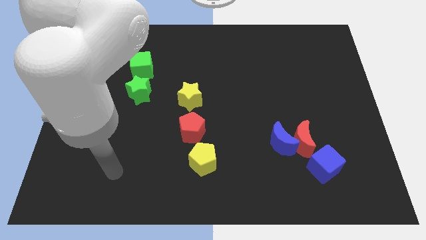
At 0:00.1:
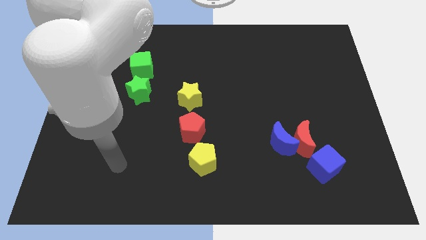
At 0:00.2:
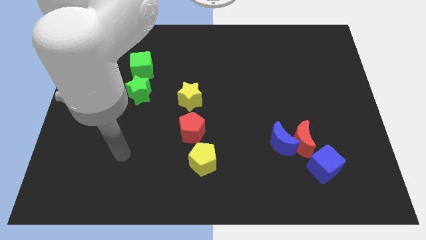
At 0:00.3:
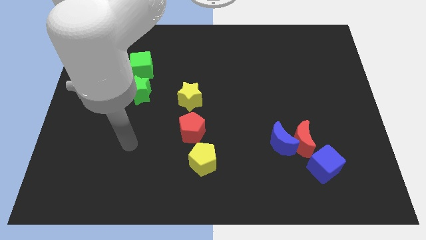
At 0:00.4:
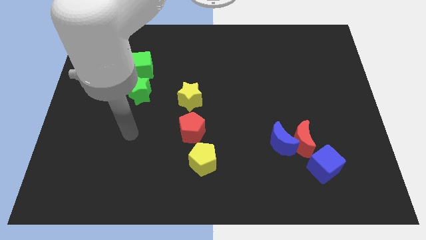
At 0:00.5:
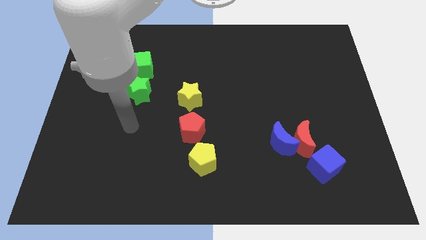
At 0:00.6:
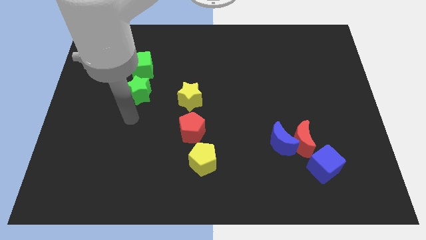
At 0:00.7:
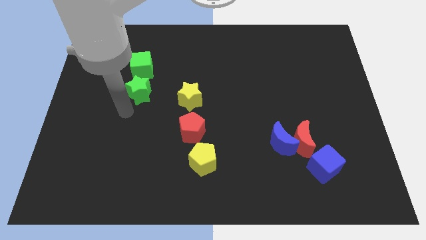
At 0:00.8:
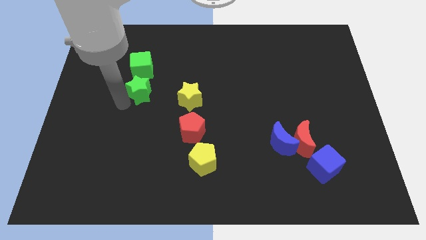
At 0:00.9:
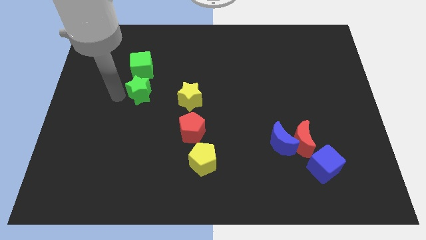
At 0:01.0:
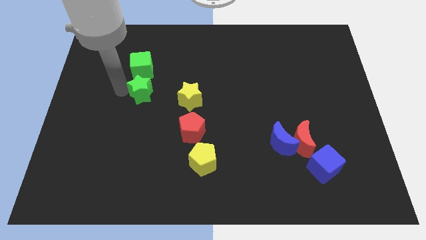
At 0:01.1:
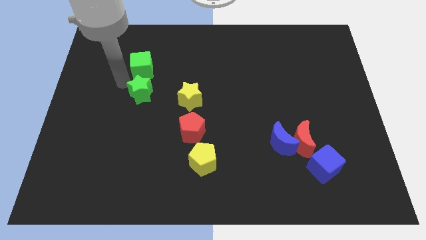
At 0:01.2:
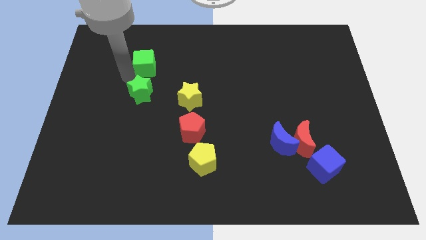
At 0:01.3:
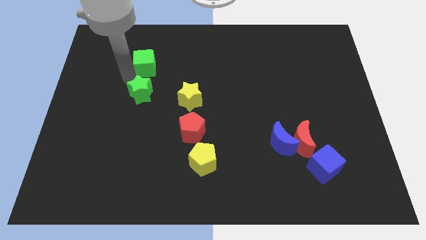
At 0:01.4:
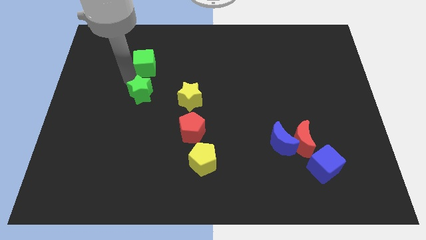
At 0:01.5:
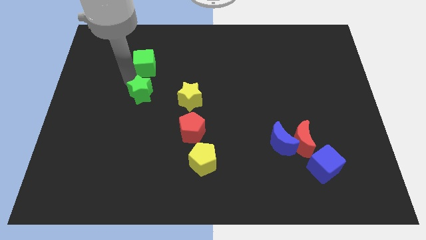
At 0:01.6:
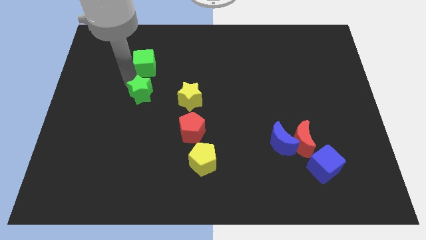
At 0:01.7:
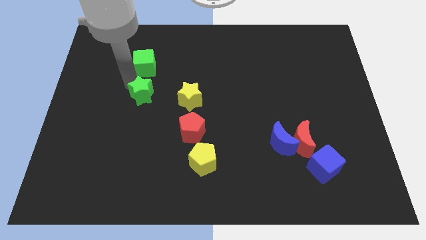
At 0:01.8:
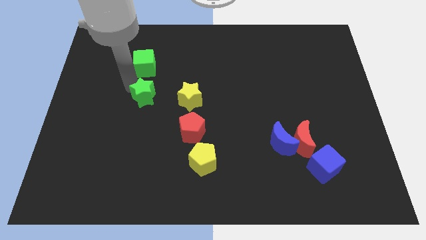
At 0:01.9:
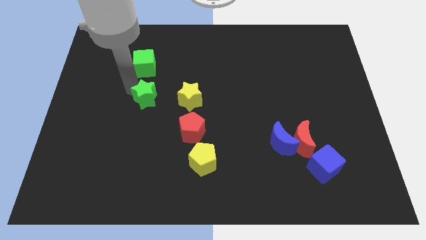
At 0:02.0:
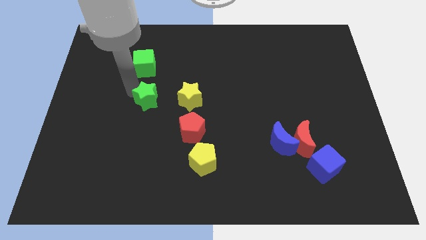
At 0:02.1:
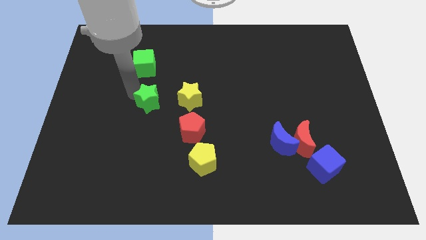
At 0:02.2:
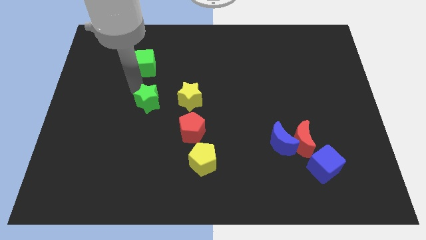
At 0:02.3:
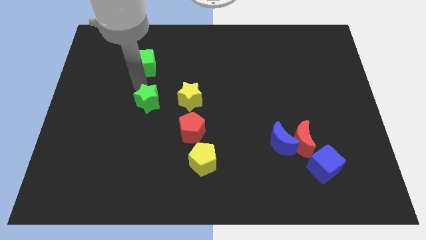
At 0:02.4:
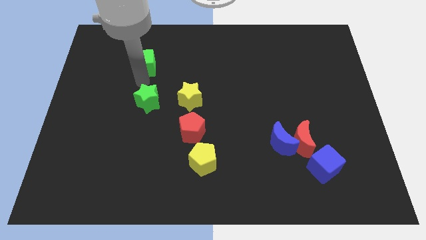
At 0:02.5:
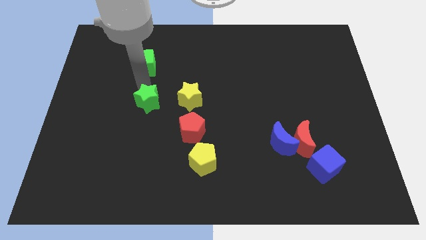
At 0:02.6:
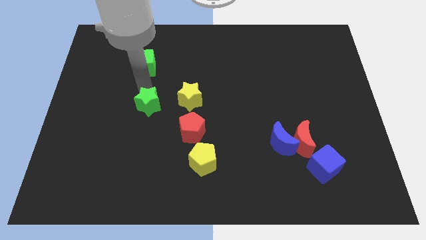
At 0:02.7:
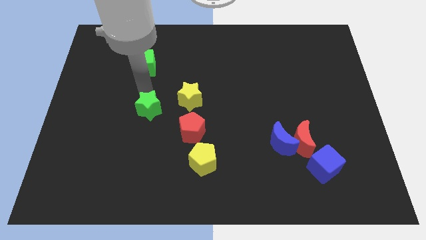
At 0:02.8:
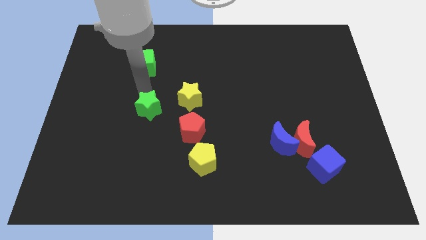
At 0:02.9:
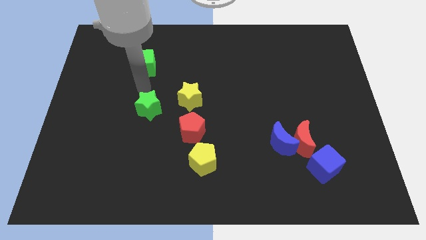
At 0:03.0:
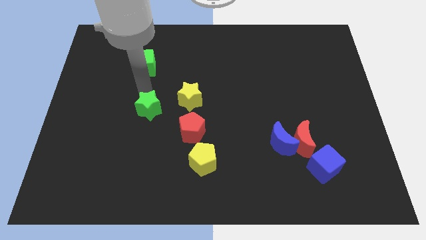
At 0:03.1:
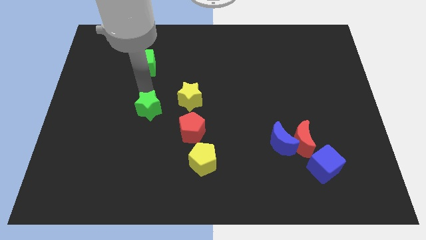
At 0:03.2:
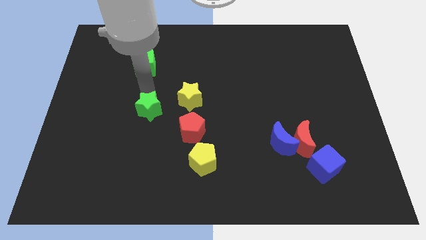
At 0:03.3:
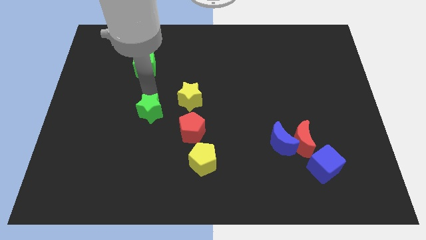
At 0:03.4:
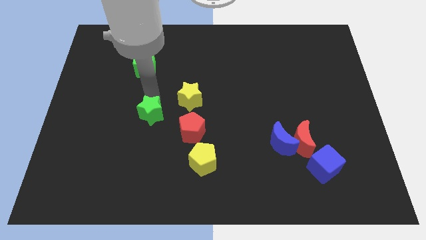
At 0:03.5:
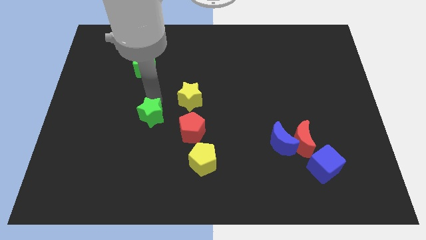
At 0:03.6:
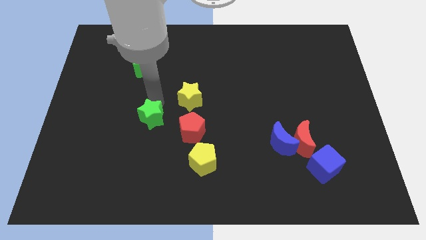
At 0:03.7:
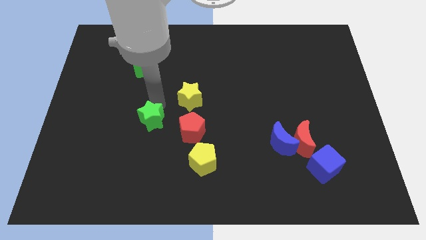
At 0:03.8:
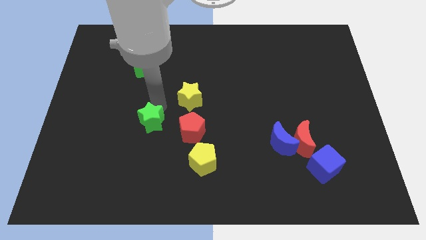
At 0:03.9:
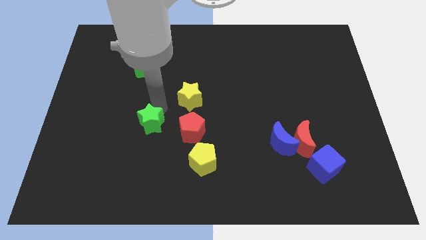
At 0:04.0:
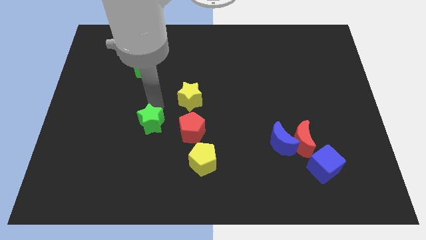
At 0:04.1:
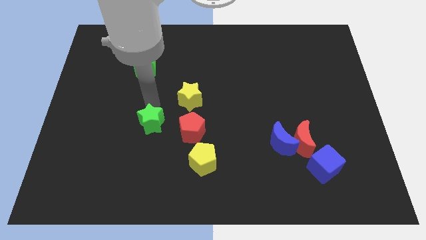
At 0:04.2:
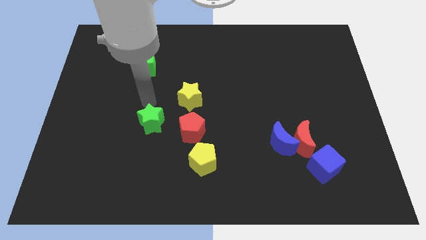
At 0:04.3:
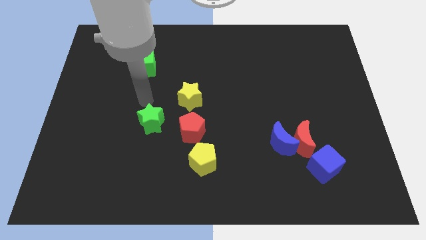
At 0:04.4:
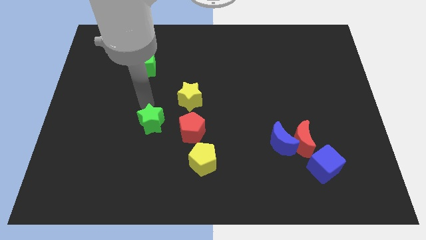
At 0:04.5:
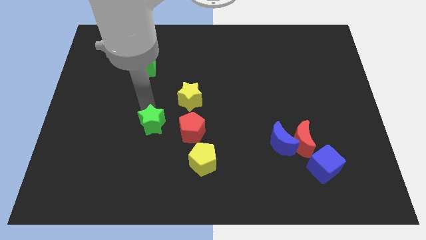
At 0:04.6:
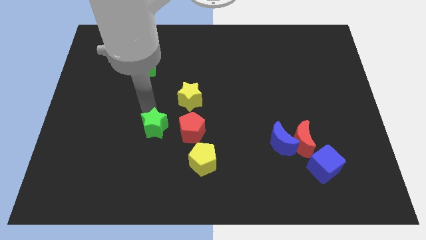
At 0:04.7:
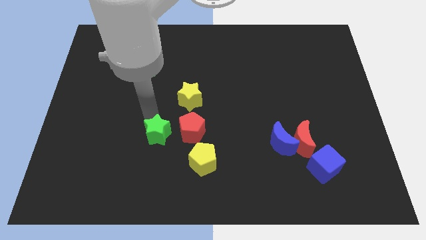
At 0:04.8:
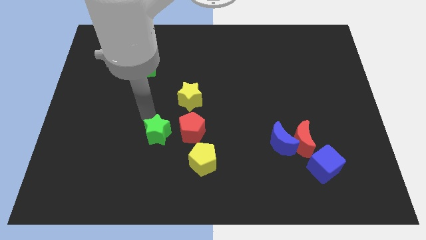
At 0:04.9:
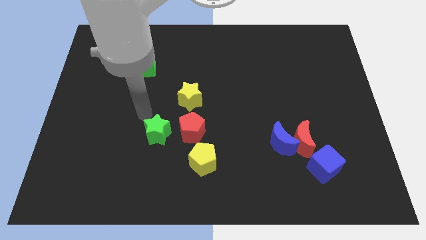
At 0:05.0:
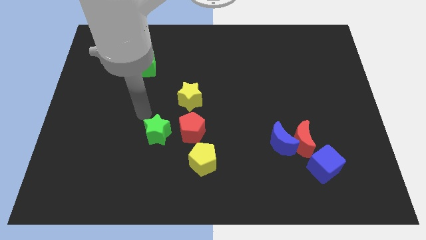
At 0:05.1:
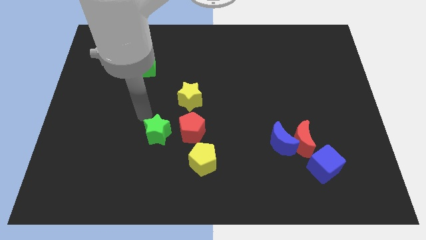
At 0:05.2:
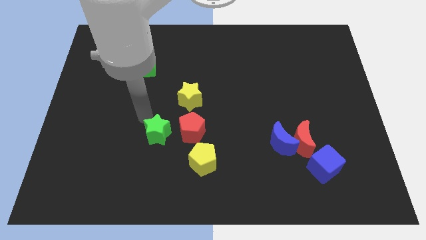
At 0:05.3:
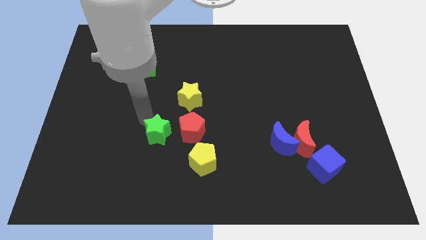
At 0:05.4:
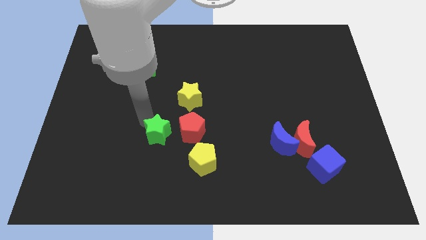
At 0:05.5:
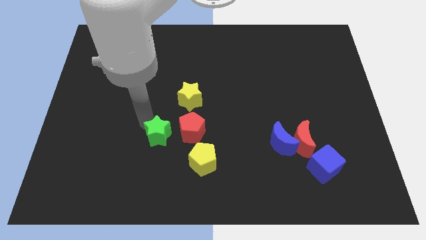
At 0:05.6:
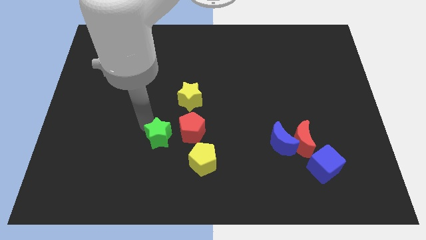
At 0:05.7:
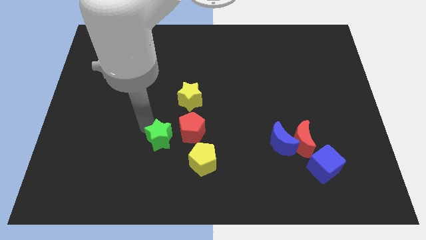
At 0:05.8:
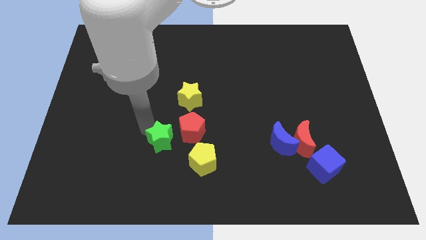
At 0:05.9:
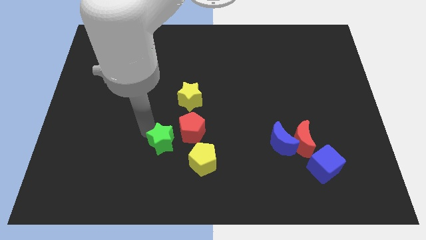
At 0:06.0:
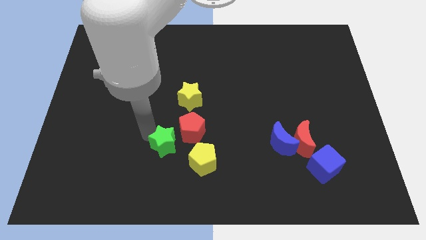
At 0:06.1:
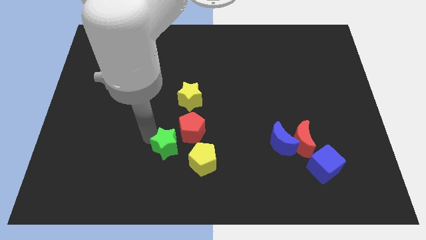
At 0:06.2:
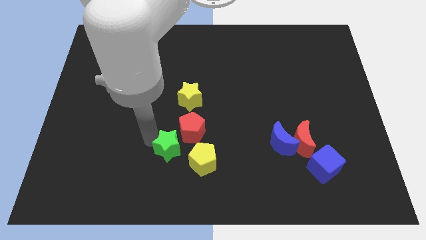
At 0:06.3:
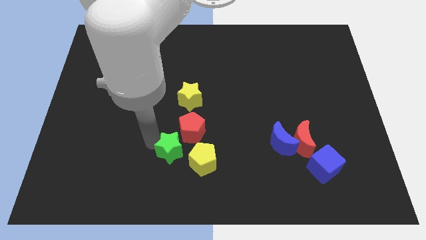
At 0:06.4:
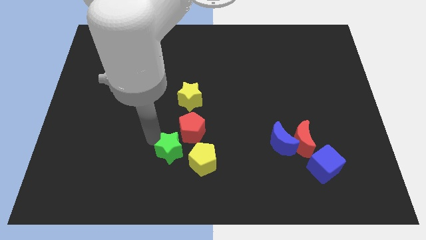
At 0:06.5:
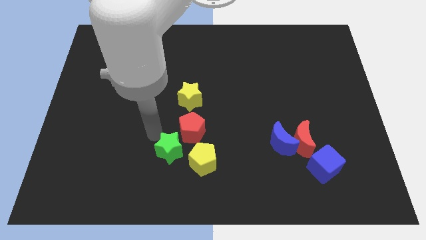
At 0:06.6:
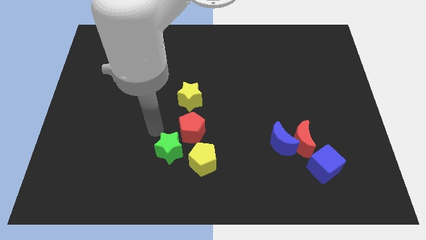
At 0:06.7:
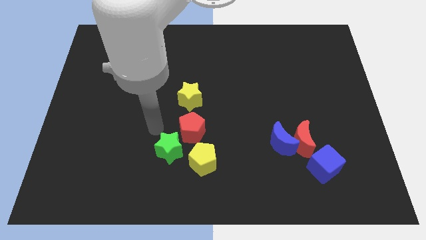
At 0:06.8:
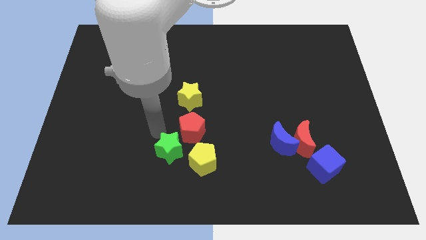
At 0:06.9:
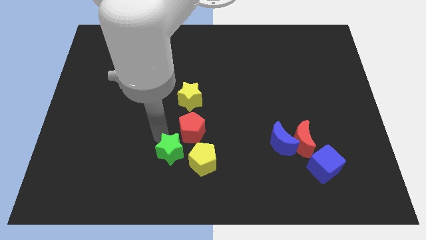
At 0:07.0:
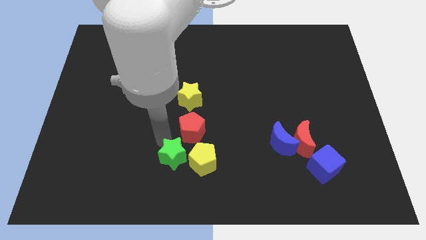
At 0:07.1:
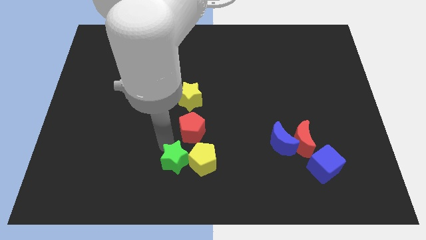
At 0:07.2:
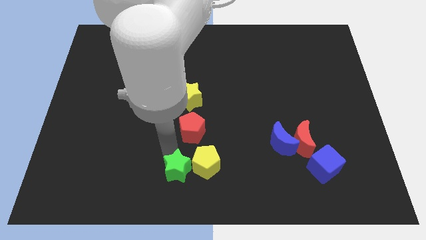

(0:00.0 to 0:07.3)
move the green star diagonally downwards and right

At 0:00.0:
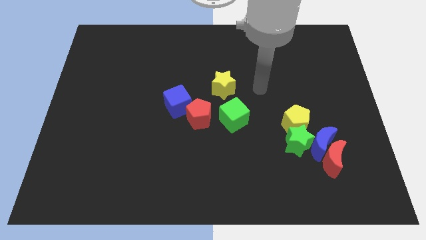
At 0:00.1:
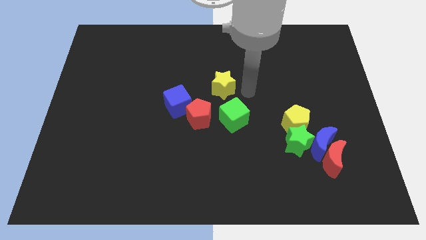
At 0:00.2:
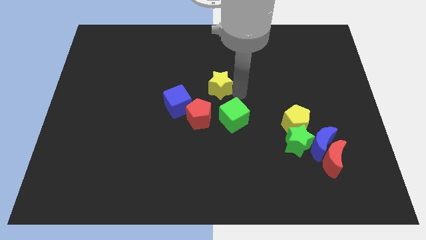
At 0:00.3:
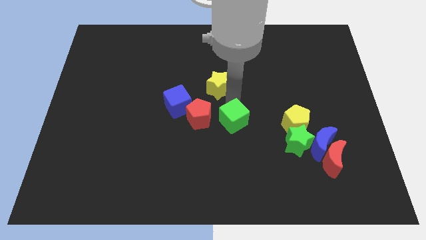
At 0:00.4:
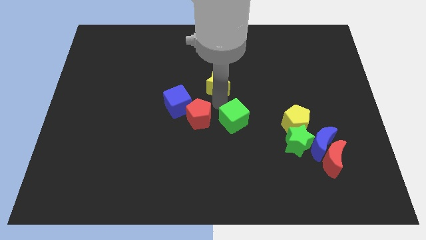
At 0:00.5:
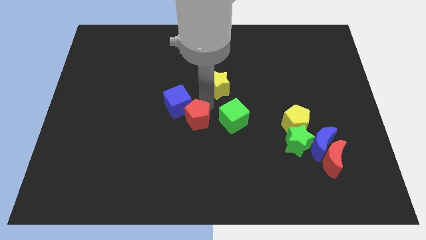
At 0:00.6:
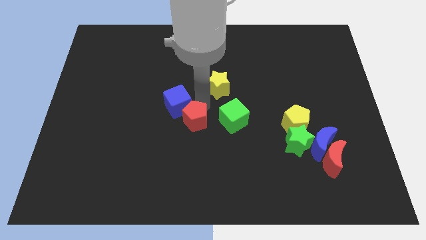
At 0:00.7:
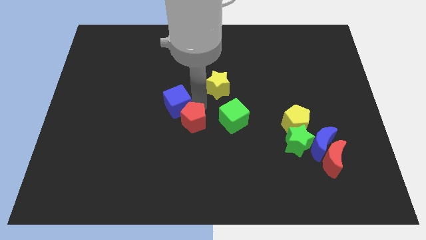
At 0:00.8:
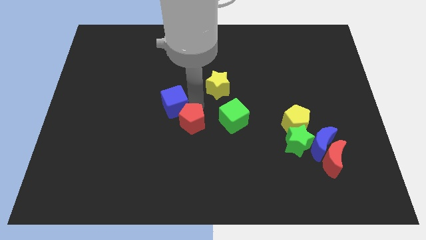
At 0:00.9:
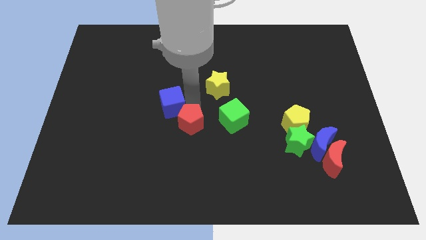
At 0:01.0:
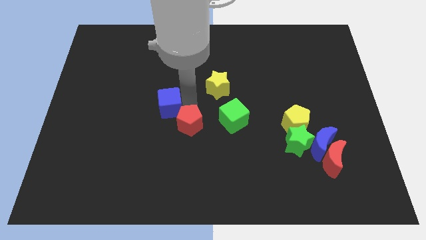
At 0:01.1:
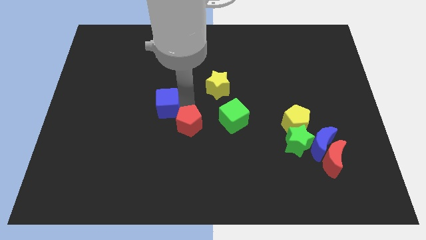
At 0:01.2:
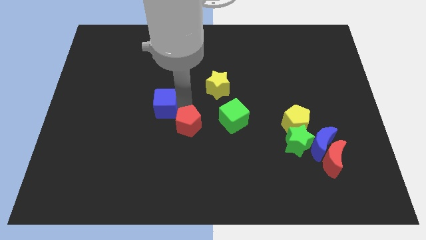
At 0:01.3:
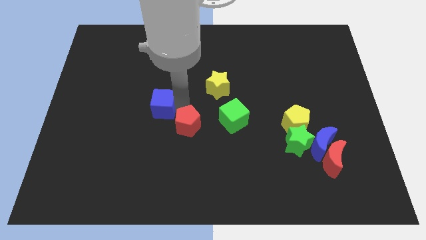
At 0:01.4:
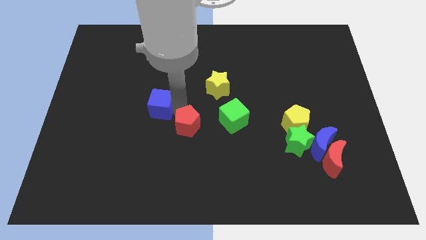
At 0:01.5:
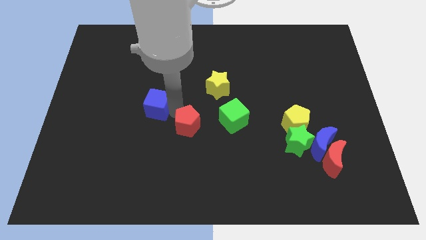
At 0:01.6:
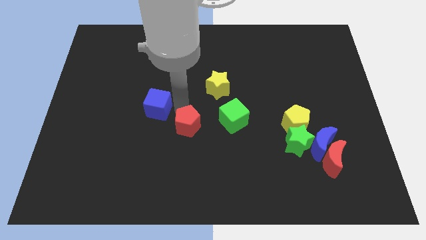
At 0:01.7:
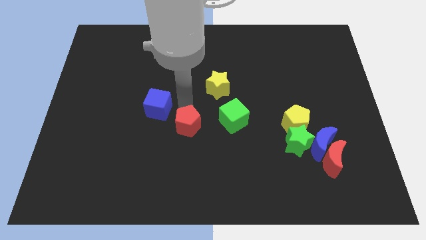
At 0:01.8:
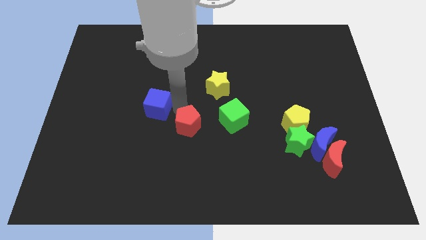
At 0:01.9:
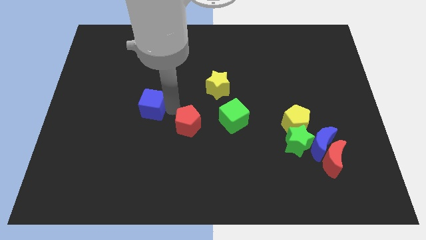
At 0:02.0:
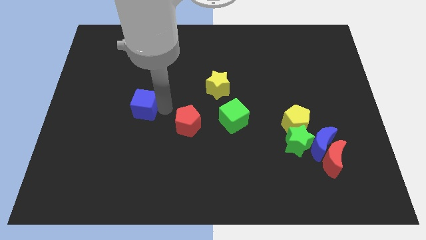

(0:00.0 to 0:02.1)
slide the blue cube a little bit to the left
